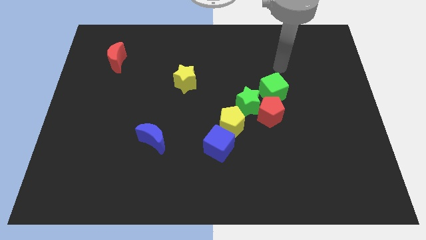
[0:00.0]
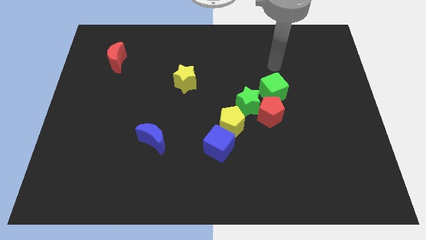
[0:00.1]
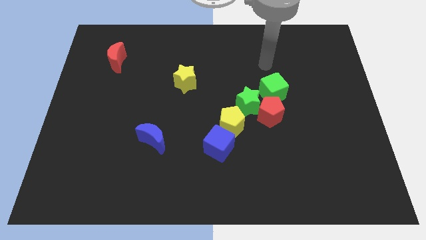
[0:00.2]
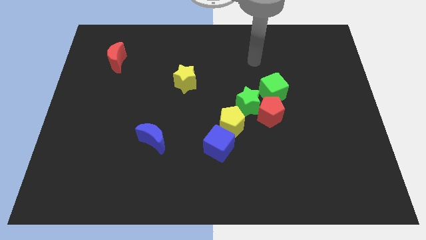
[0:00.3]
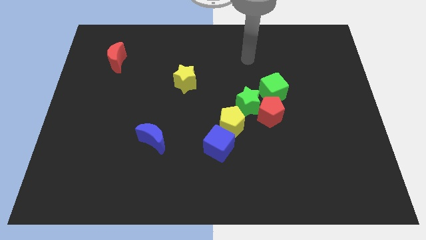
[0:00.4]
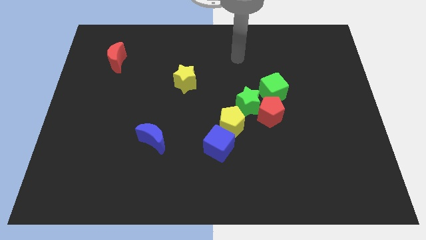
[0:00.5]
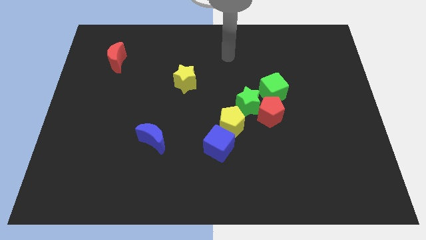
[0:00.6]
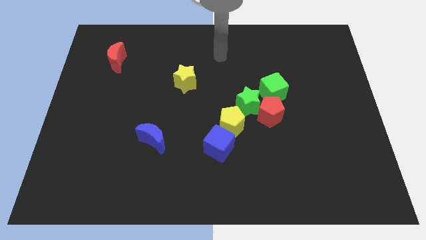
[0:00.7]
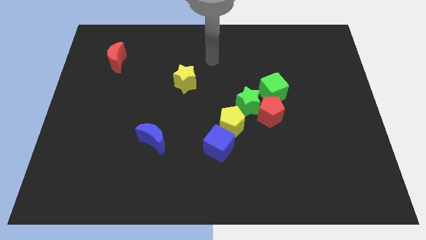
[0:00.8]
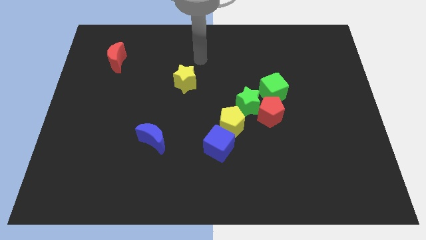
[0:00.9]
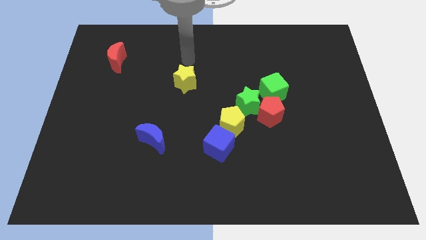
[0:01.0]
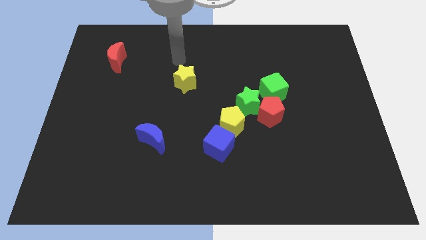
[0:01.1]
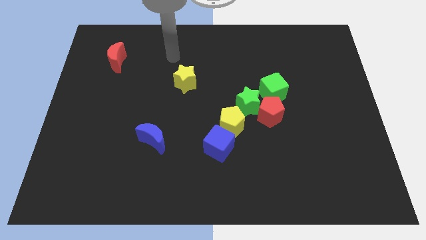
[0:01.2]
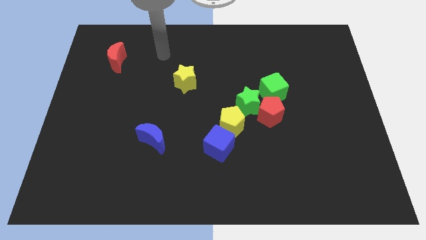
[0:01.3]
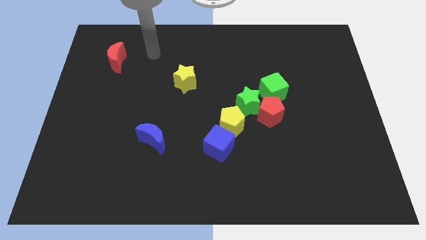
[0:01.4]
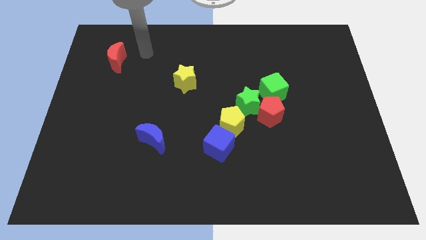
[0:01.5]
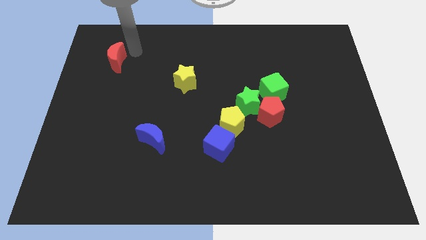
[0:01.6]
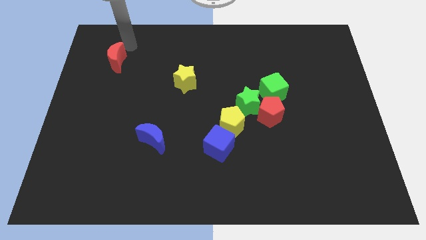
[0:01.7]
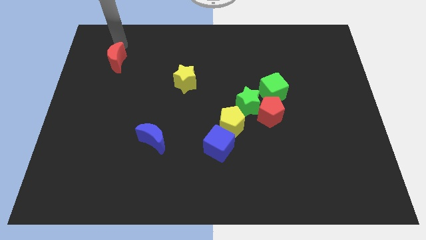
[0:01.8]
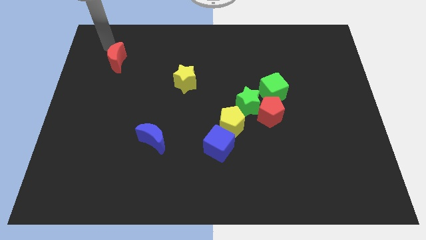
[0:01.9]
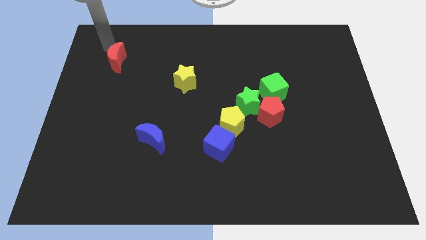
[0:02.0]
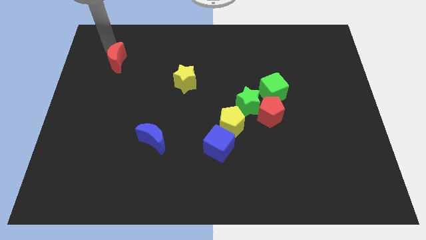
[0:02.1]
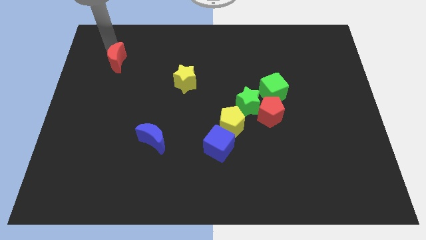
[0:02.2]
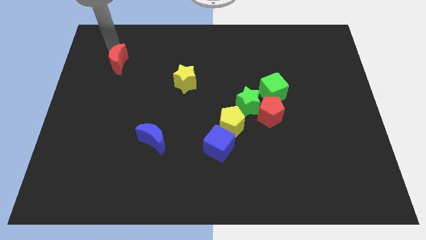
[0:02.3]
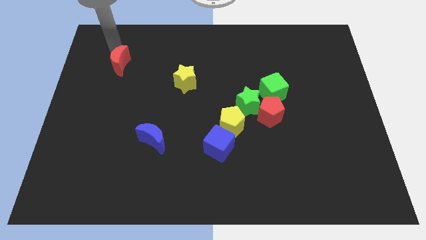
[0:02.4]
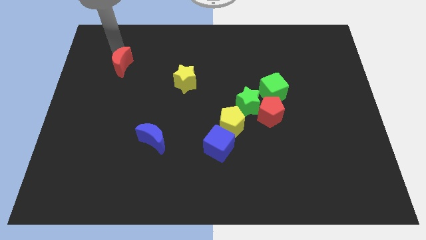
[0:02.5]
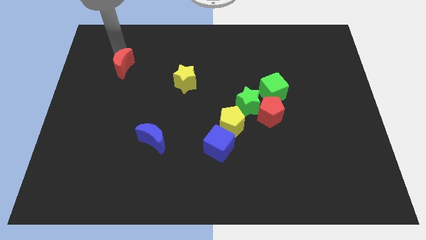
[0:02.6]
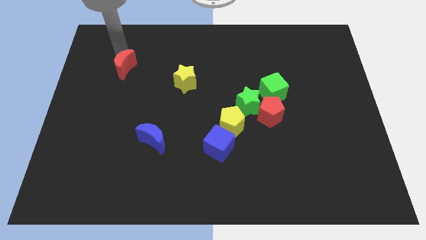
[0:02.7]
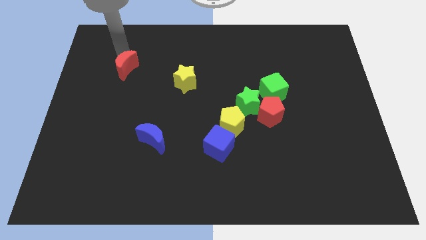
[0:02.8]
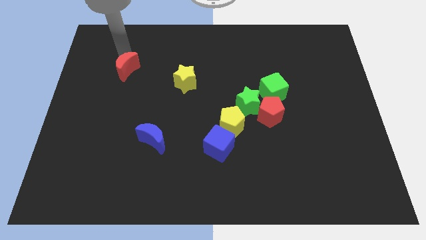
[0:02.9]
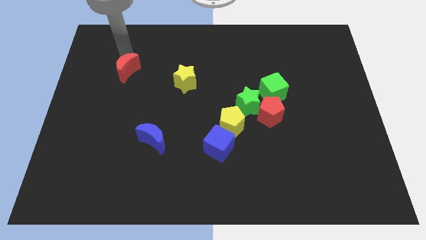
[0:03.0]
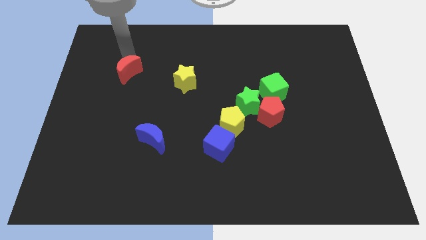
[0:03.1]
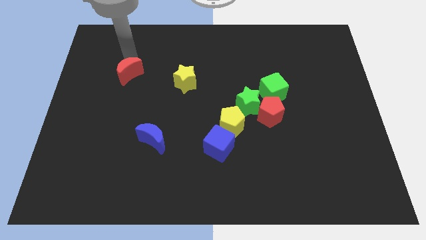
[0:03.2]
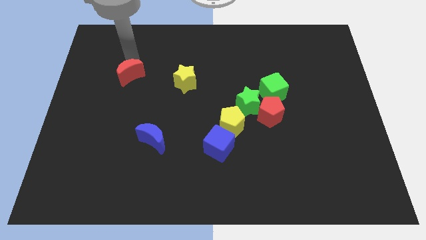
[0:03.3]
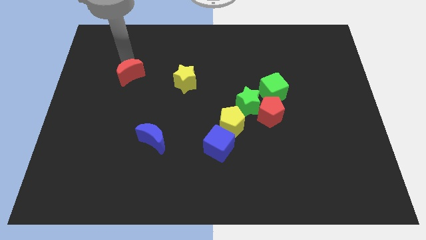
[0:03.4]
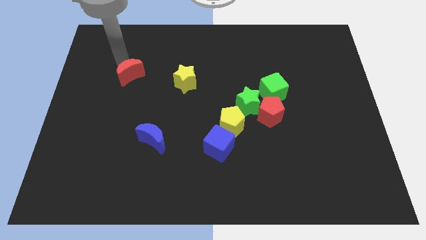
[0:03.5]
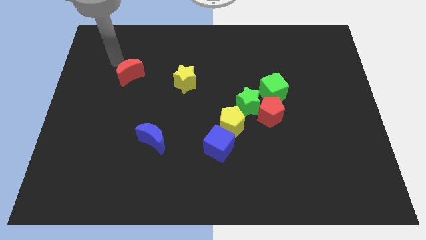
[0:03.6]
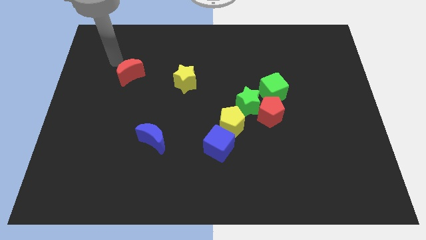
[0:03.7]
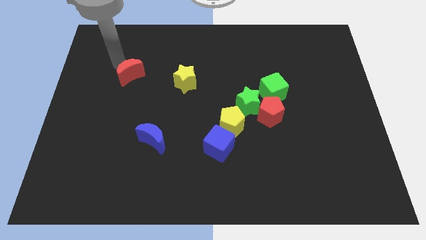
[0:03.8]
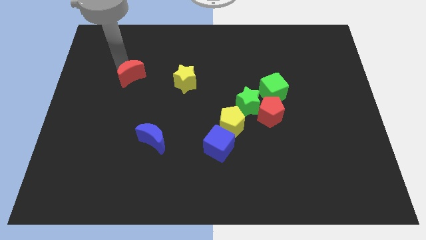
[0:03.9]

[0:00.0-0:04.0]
slightly push the red moon downwards and then to the right

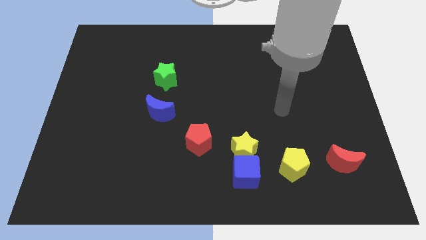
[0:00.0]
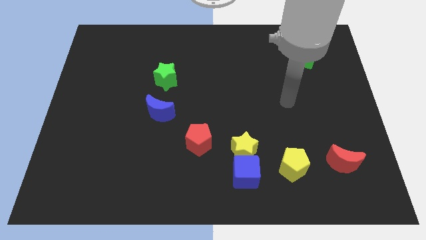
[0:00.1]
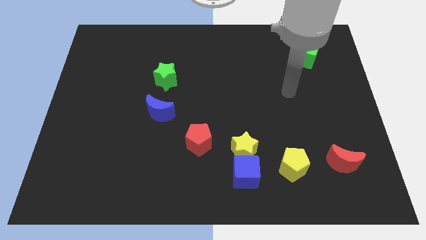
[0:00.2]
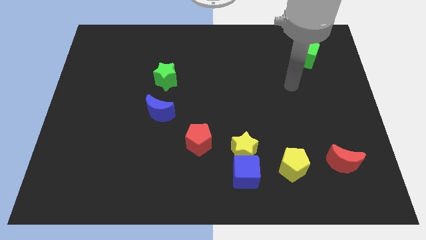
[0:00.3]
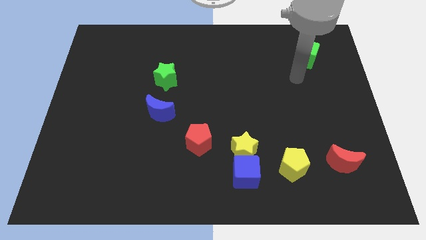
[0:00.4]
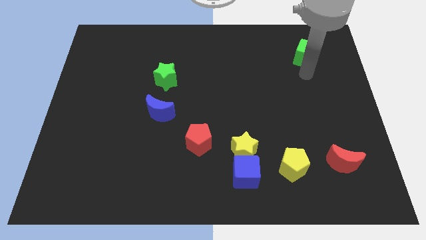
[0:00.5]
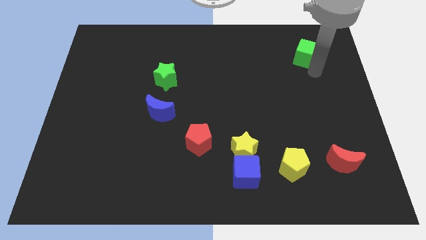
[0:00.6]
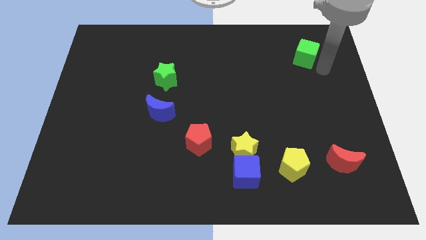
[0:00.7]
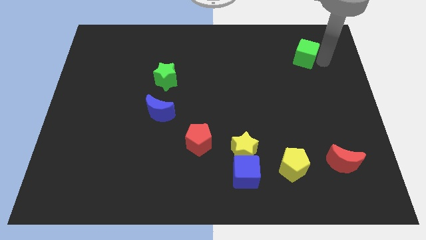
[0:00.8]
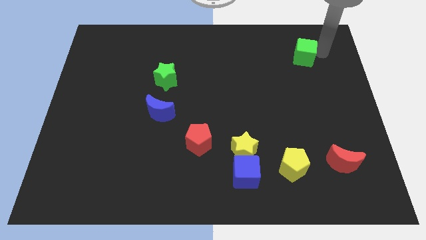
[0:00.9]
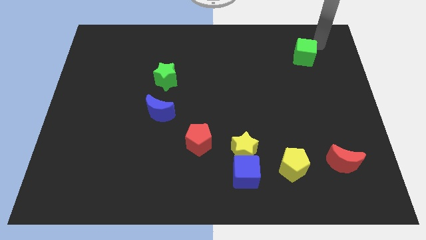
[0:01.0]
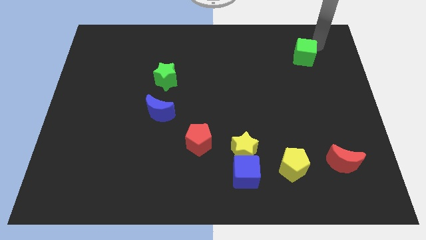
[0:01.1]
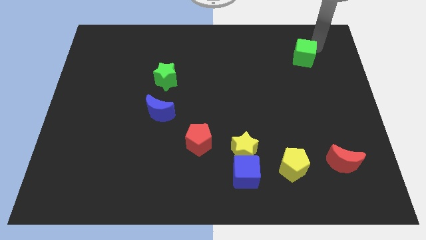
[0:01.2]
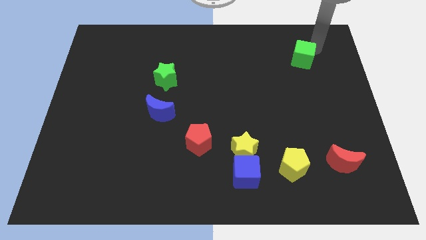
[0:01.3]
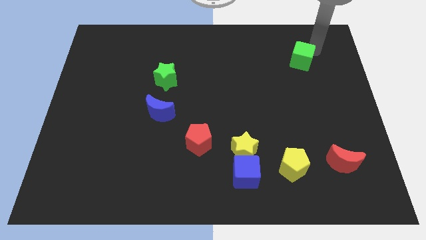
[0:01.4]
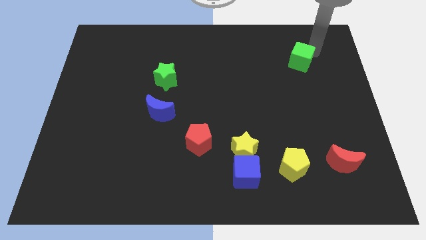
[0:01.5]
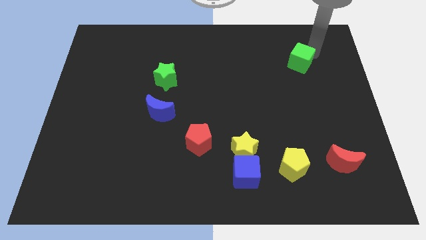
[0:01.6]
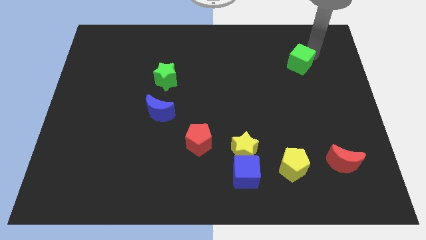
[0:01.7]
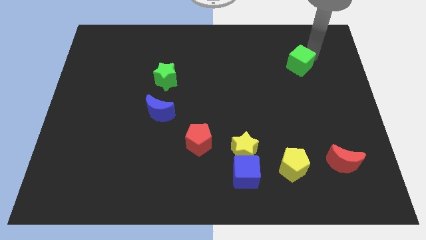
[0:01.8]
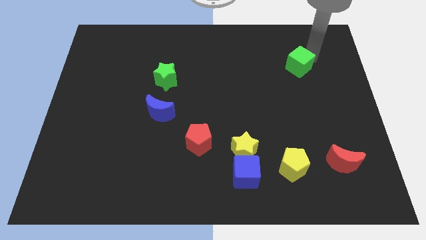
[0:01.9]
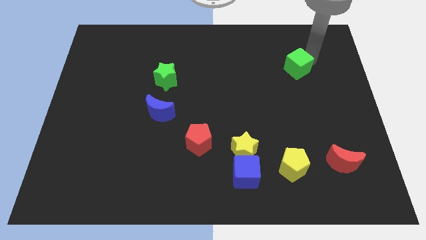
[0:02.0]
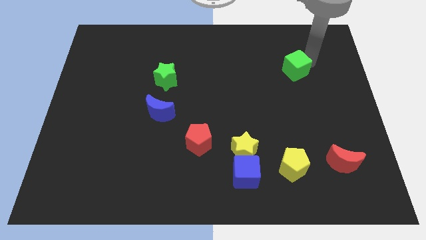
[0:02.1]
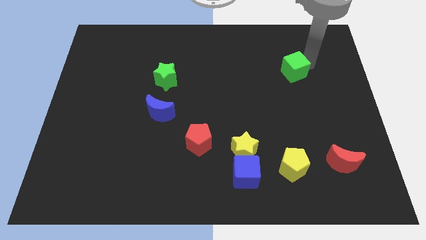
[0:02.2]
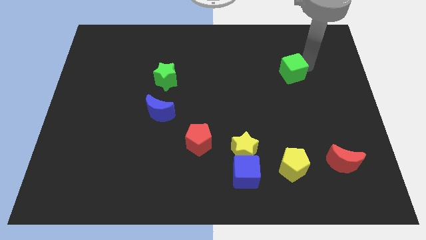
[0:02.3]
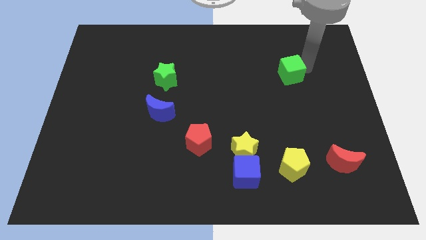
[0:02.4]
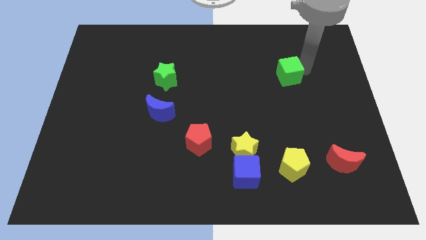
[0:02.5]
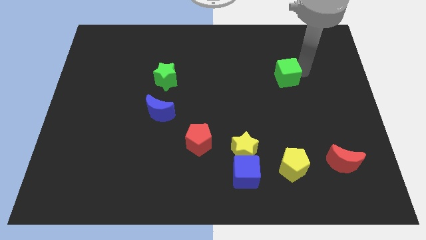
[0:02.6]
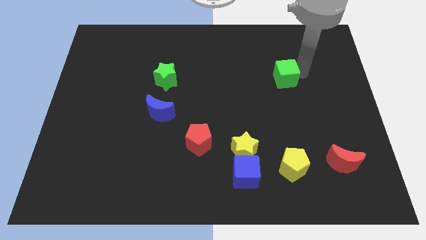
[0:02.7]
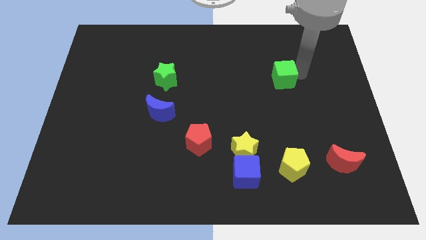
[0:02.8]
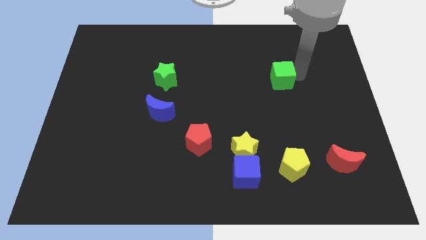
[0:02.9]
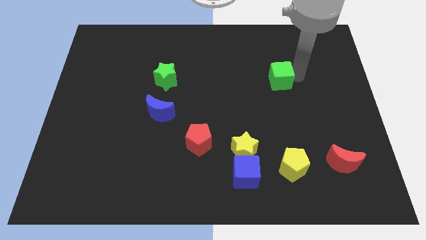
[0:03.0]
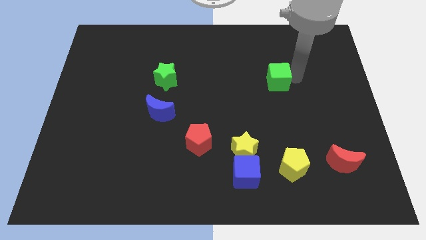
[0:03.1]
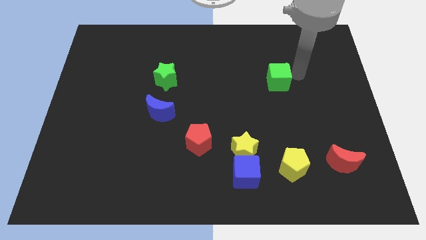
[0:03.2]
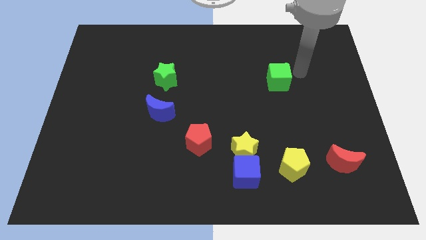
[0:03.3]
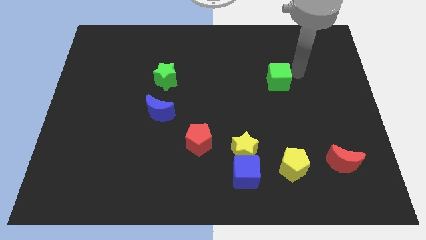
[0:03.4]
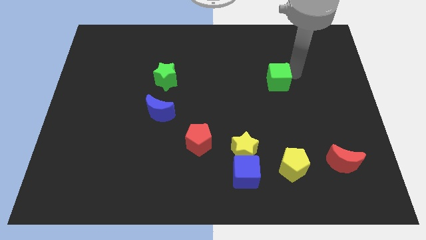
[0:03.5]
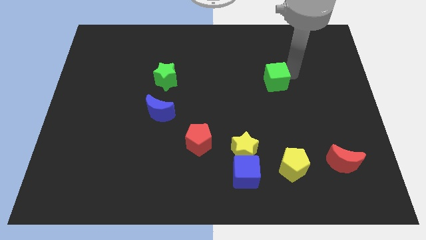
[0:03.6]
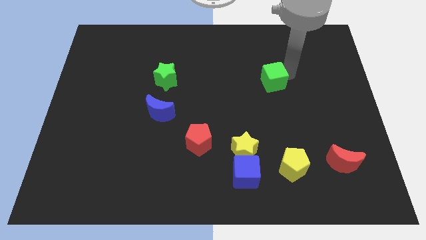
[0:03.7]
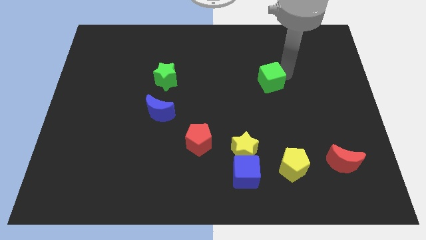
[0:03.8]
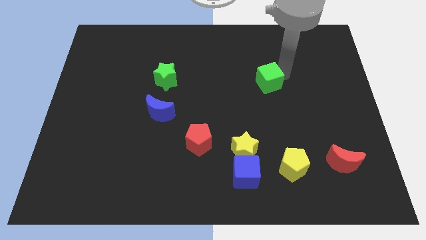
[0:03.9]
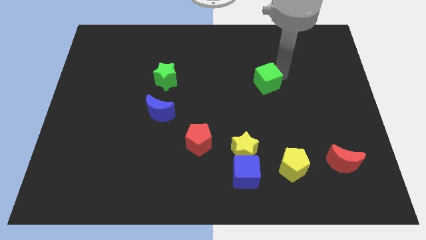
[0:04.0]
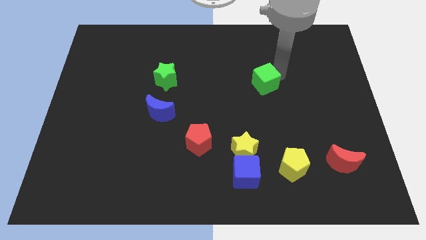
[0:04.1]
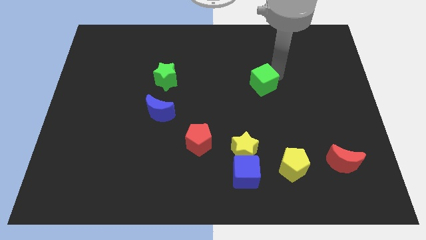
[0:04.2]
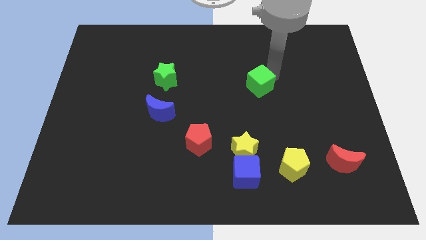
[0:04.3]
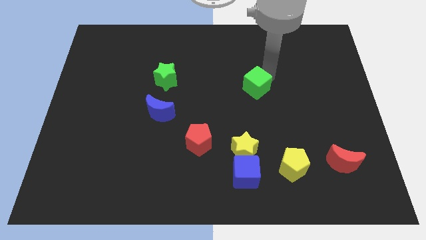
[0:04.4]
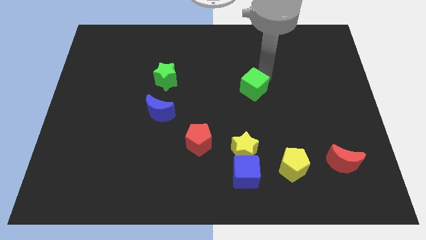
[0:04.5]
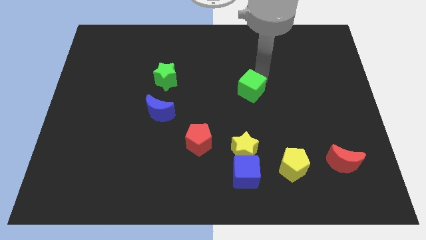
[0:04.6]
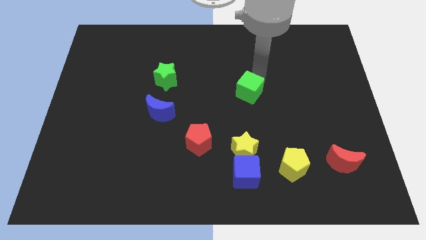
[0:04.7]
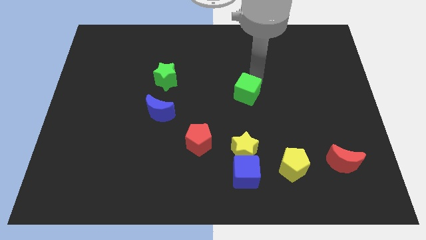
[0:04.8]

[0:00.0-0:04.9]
slide the green cube downwards and then left
